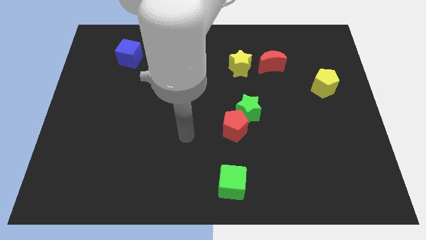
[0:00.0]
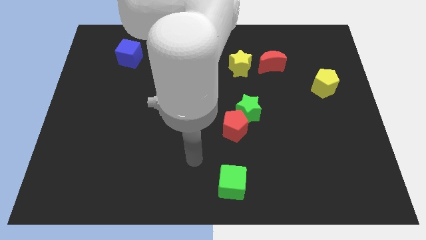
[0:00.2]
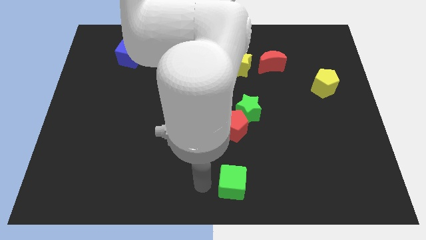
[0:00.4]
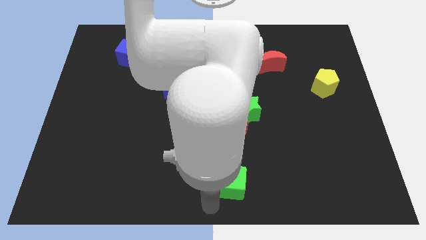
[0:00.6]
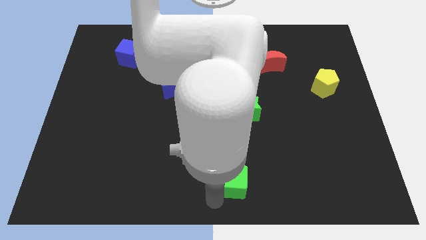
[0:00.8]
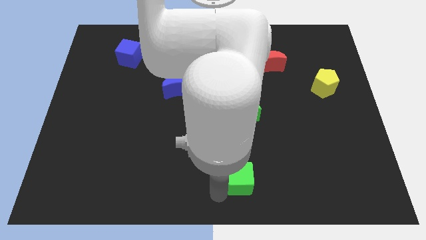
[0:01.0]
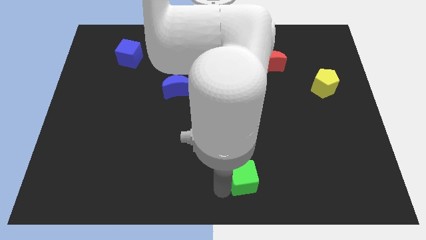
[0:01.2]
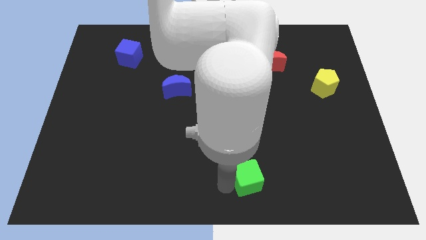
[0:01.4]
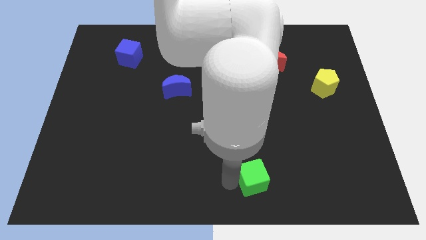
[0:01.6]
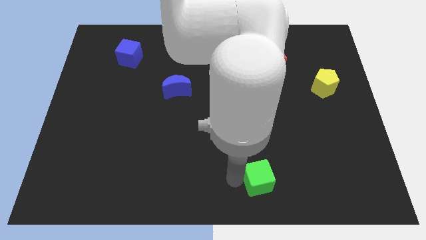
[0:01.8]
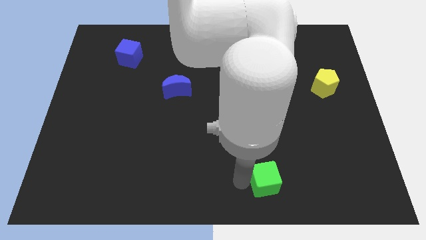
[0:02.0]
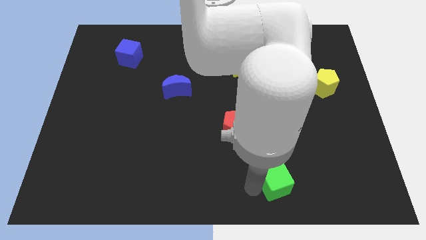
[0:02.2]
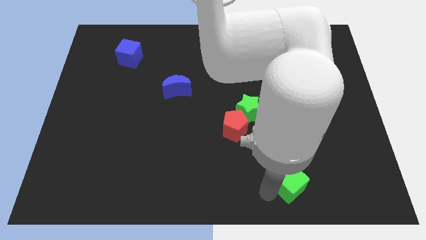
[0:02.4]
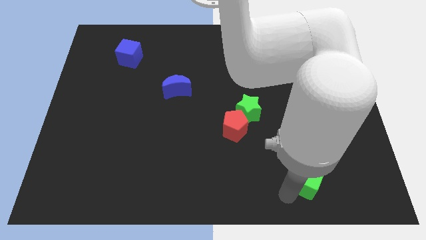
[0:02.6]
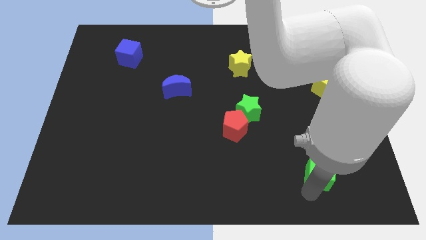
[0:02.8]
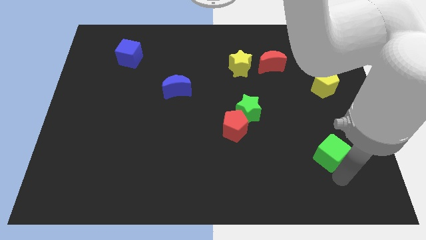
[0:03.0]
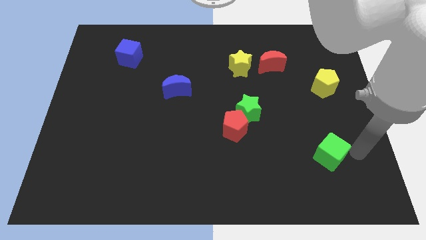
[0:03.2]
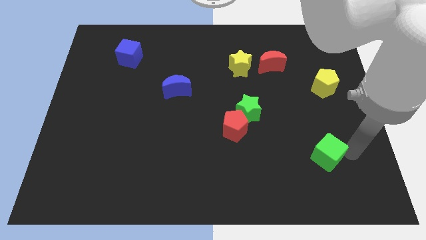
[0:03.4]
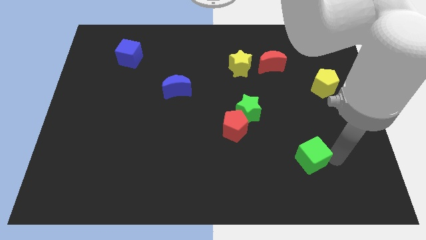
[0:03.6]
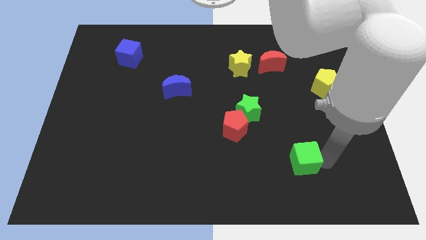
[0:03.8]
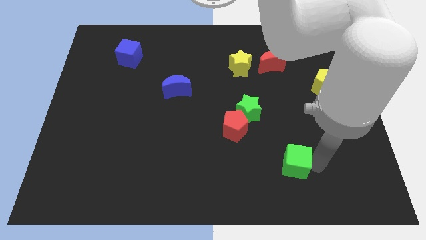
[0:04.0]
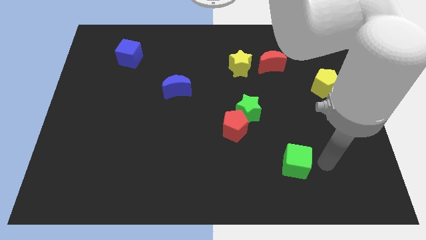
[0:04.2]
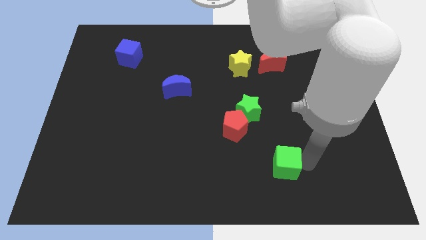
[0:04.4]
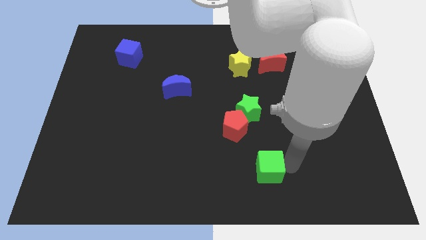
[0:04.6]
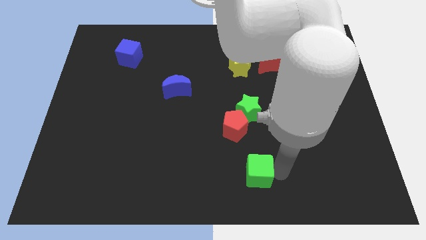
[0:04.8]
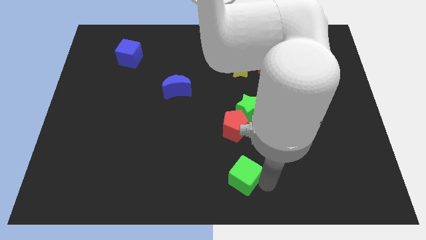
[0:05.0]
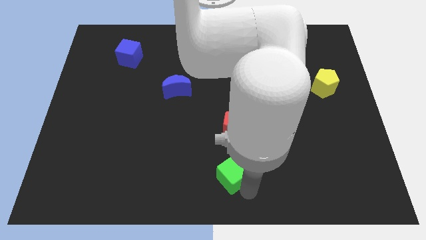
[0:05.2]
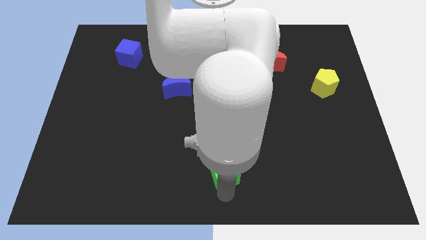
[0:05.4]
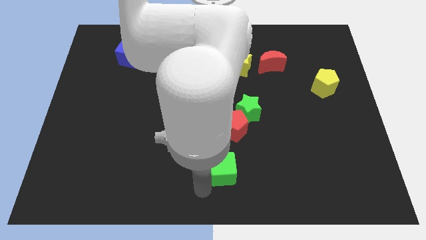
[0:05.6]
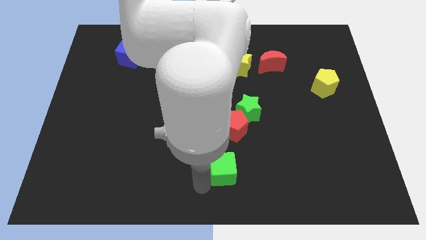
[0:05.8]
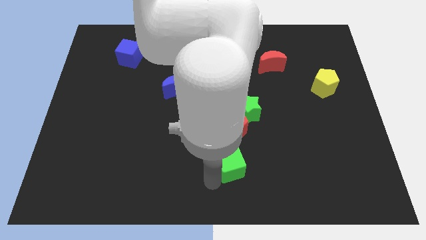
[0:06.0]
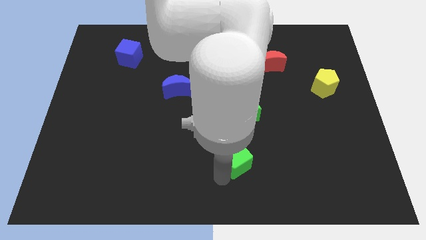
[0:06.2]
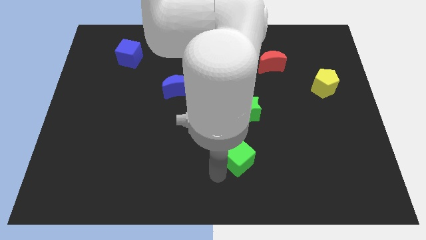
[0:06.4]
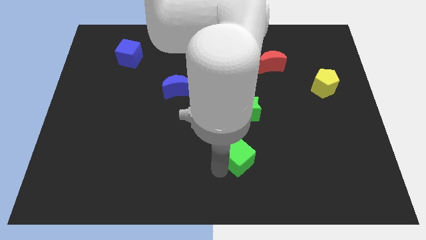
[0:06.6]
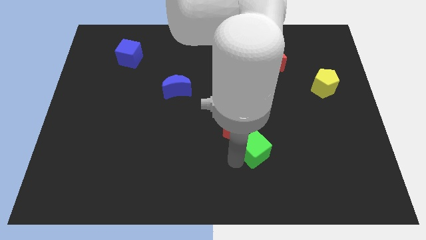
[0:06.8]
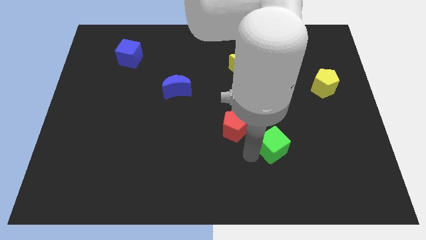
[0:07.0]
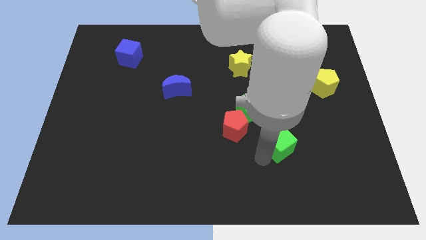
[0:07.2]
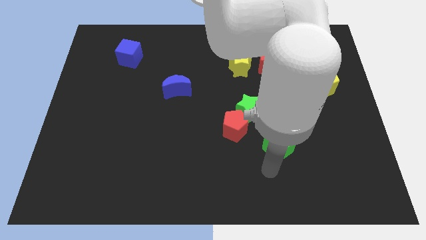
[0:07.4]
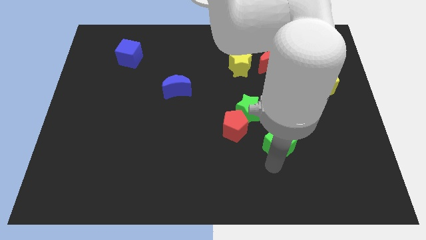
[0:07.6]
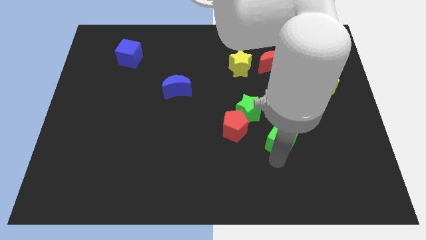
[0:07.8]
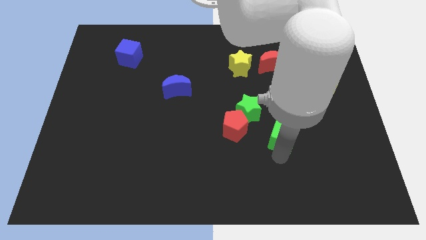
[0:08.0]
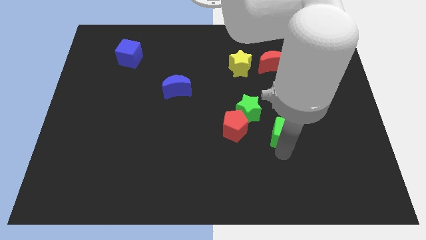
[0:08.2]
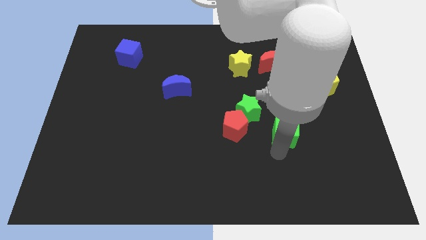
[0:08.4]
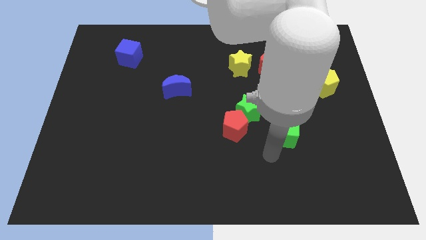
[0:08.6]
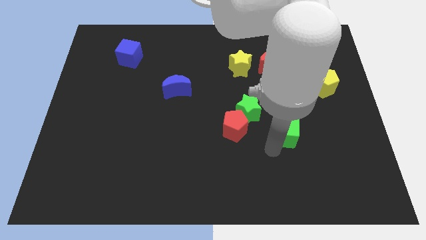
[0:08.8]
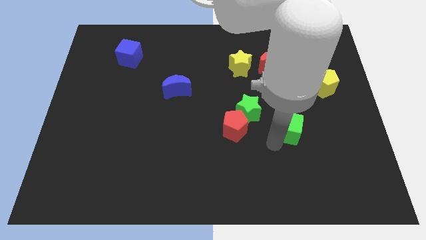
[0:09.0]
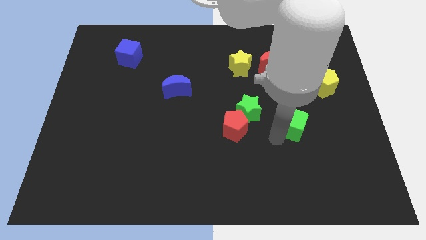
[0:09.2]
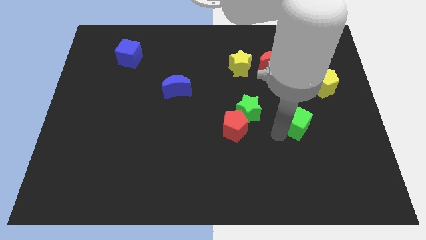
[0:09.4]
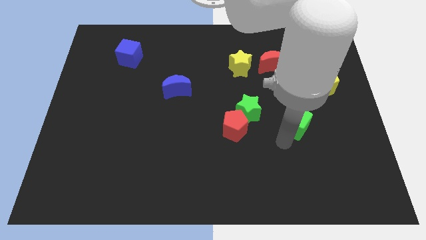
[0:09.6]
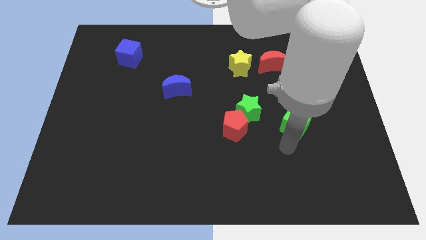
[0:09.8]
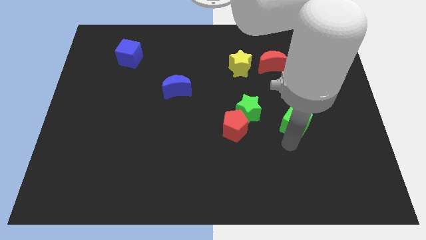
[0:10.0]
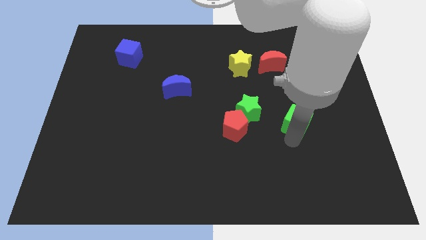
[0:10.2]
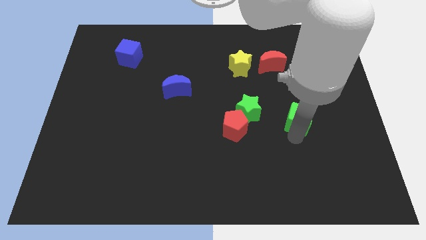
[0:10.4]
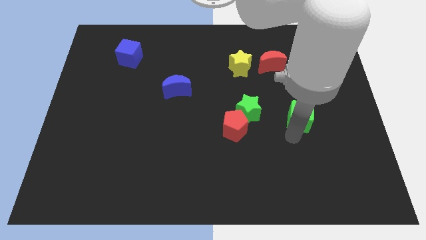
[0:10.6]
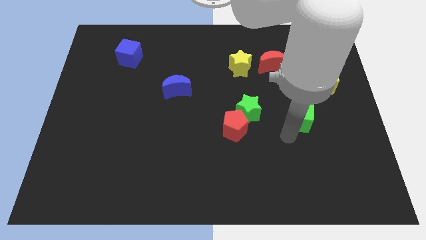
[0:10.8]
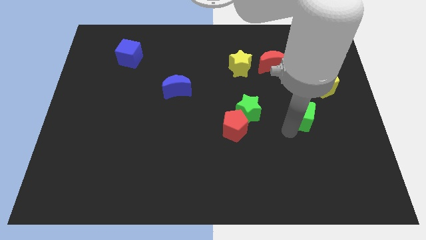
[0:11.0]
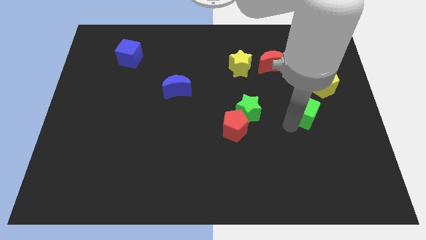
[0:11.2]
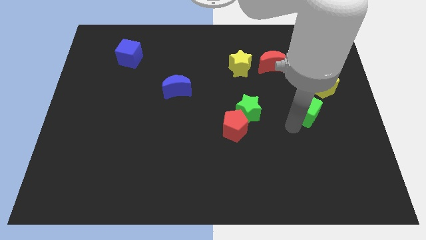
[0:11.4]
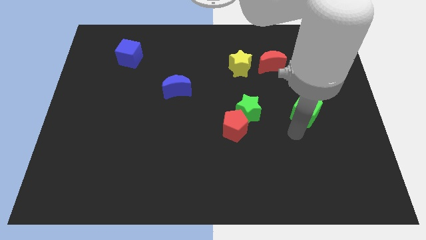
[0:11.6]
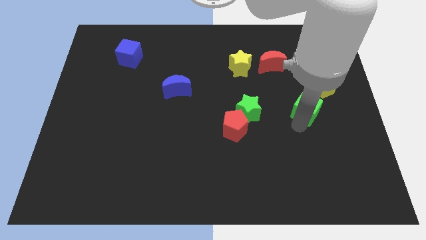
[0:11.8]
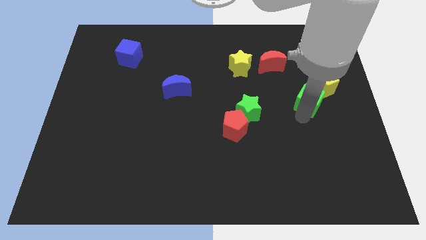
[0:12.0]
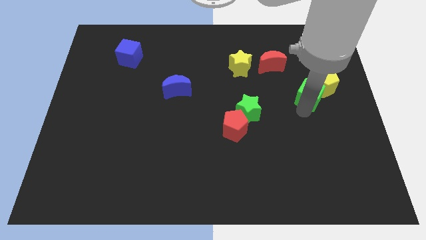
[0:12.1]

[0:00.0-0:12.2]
move the green cube next to the yellow pentagon
